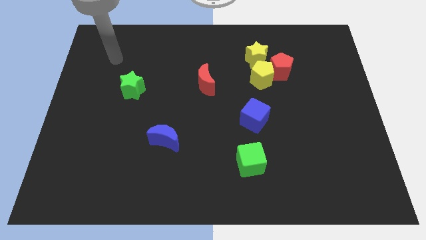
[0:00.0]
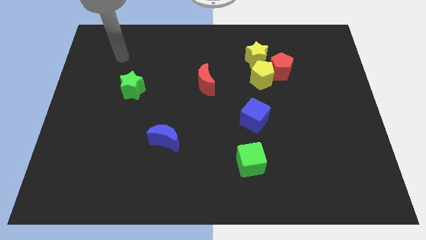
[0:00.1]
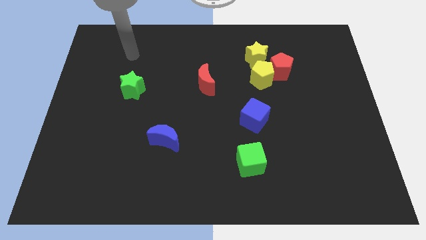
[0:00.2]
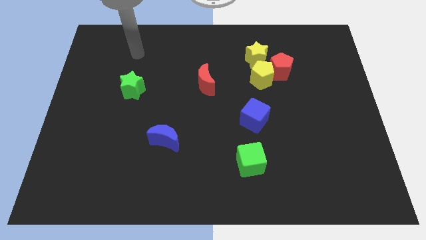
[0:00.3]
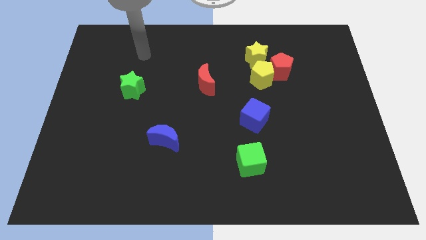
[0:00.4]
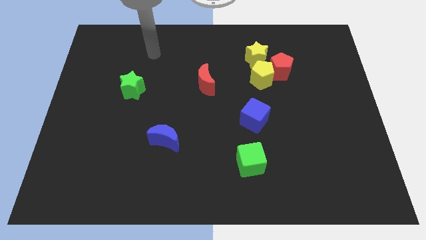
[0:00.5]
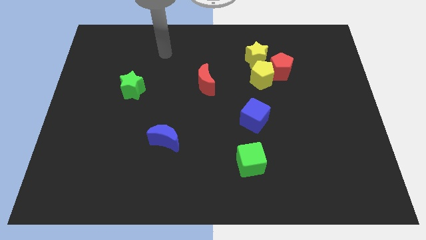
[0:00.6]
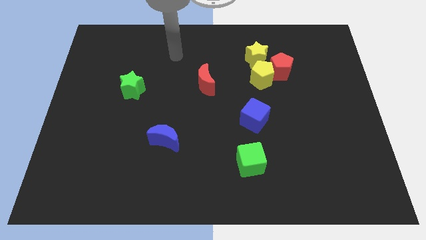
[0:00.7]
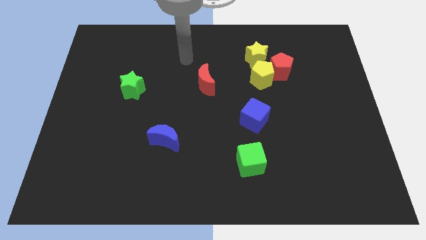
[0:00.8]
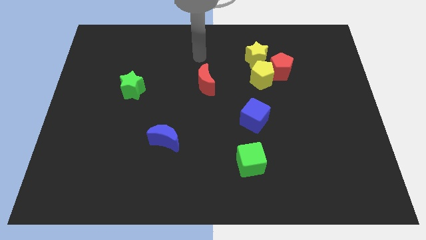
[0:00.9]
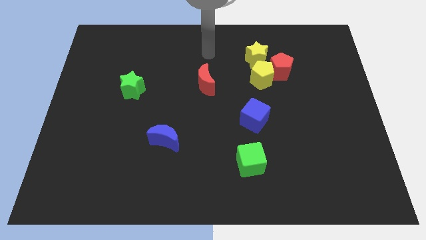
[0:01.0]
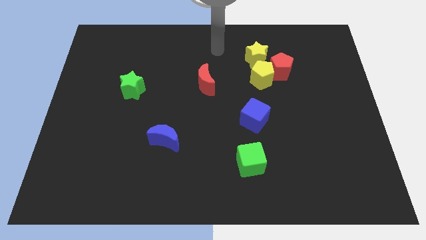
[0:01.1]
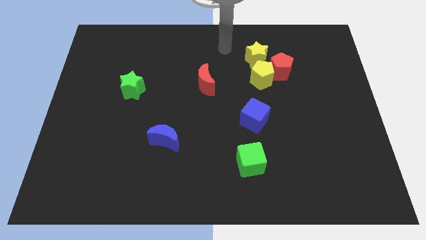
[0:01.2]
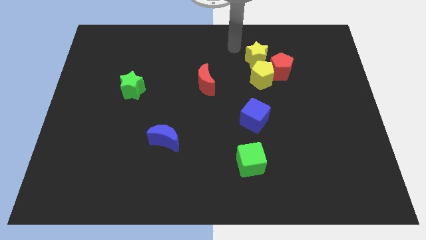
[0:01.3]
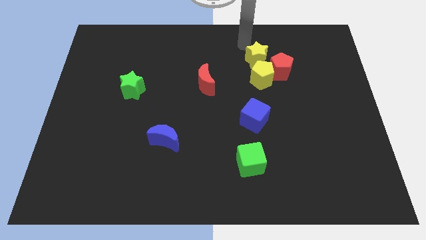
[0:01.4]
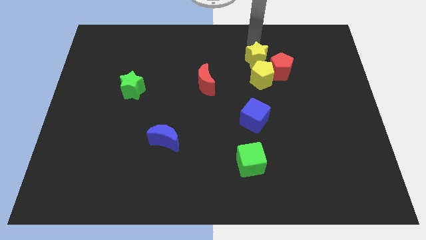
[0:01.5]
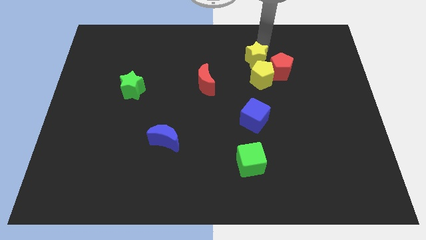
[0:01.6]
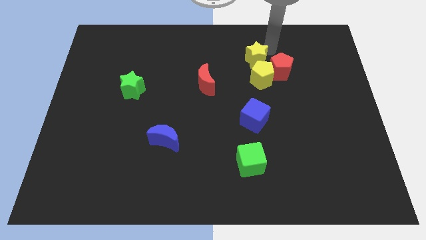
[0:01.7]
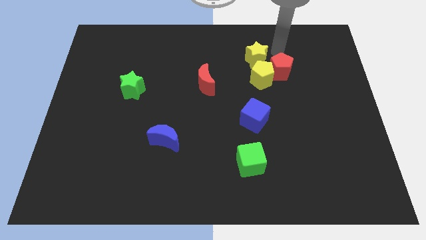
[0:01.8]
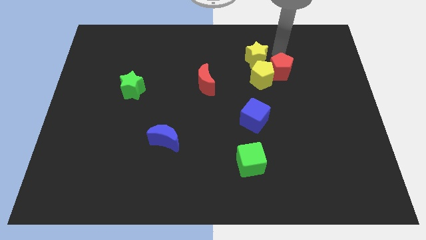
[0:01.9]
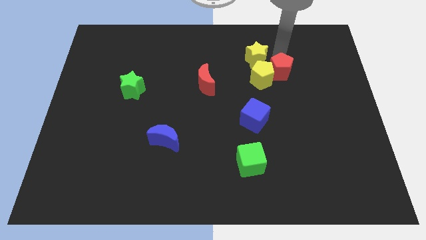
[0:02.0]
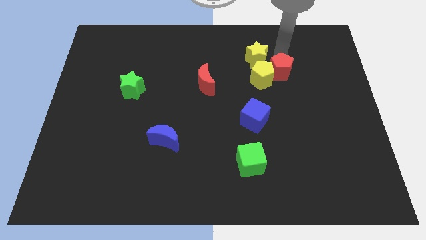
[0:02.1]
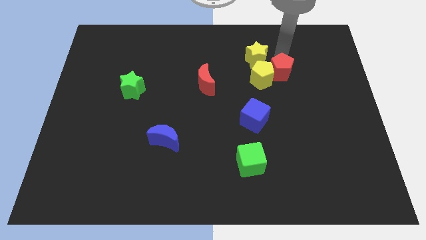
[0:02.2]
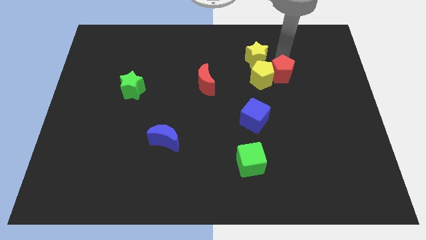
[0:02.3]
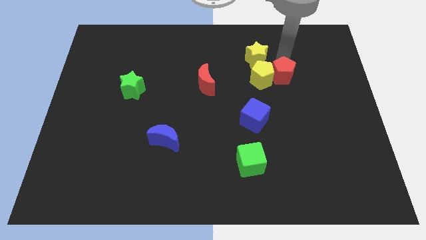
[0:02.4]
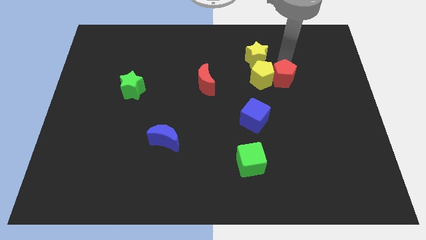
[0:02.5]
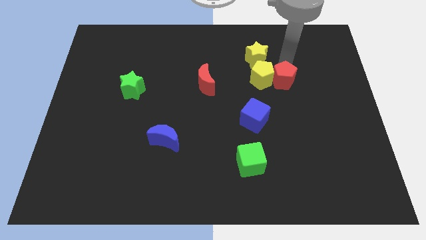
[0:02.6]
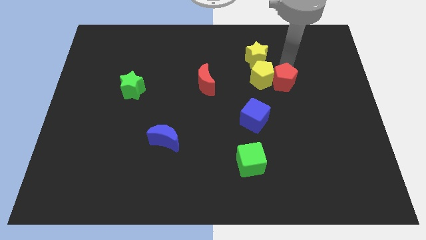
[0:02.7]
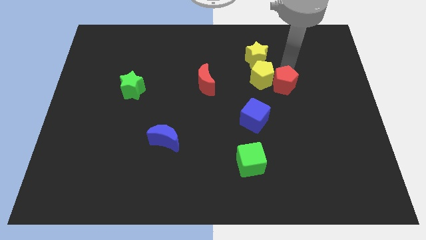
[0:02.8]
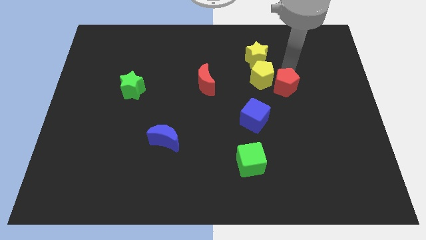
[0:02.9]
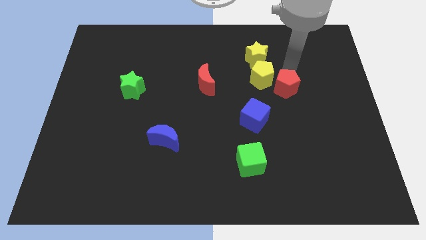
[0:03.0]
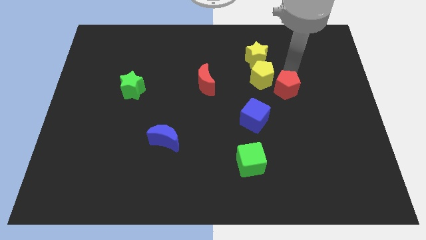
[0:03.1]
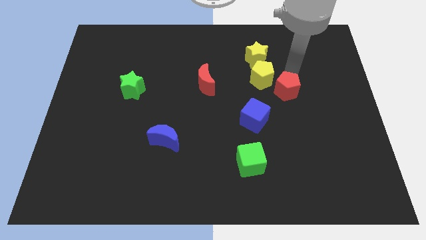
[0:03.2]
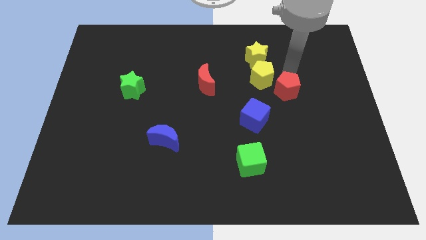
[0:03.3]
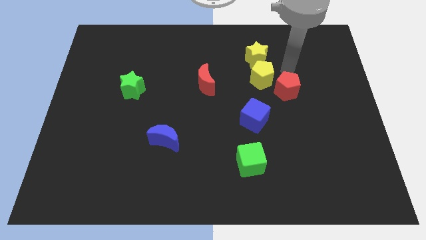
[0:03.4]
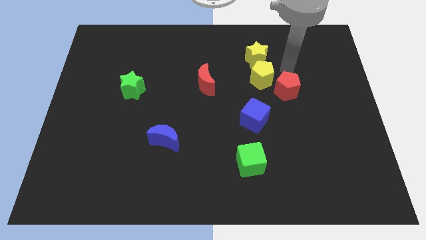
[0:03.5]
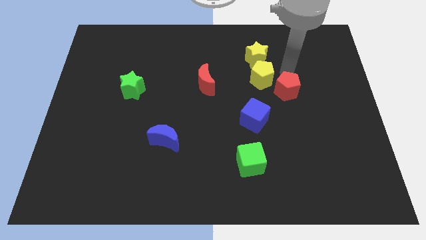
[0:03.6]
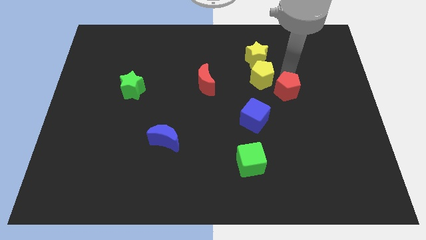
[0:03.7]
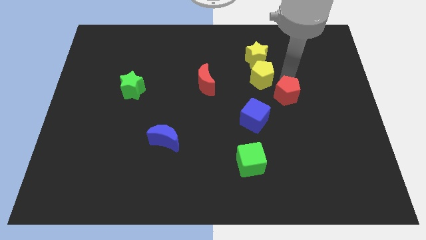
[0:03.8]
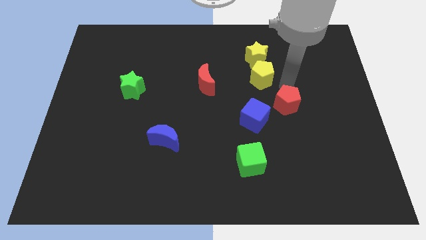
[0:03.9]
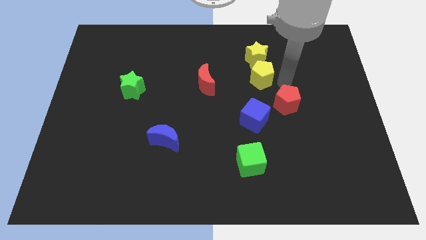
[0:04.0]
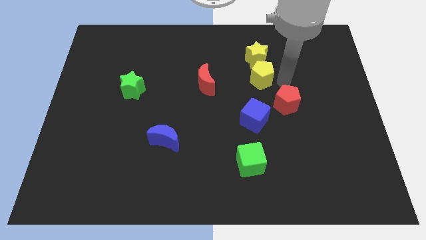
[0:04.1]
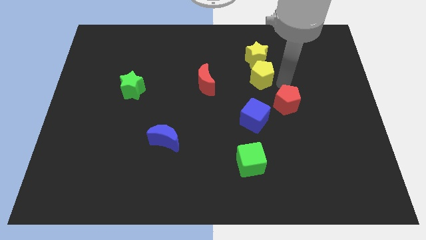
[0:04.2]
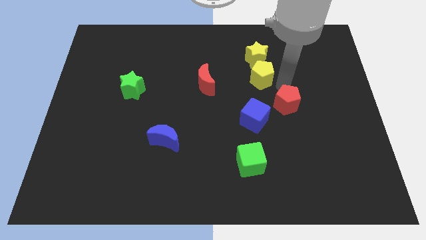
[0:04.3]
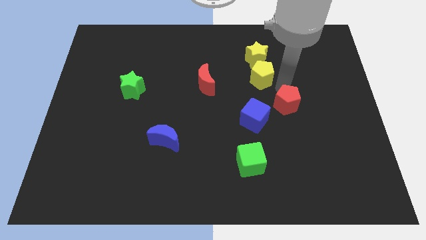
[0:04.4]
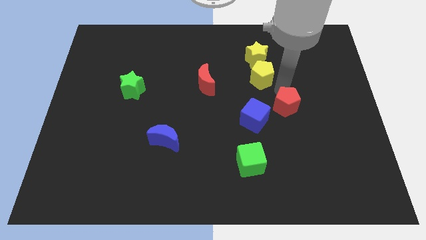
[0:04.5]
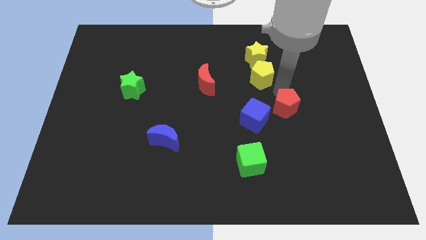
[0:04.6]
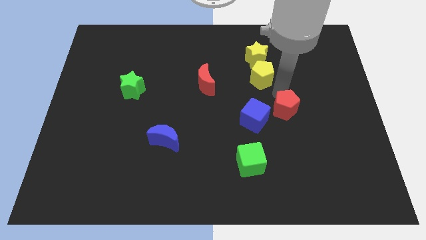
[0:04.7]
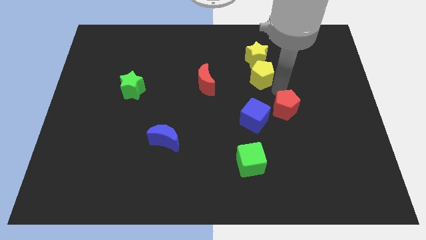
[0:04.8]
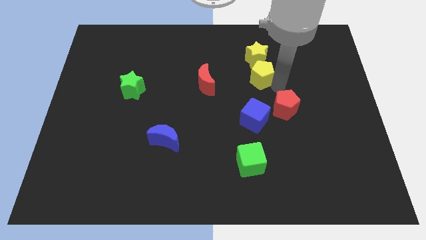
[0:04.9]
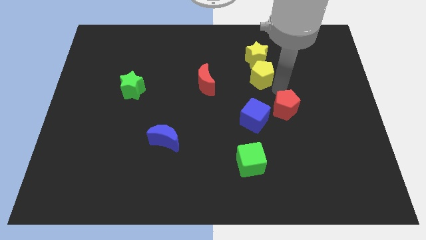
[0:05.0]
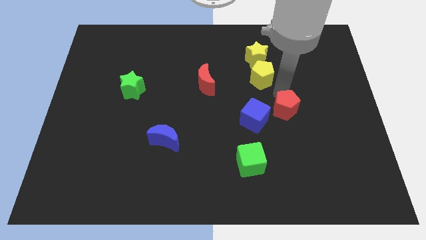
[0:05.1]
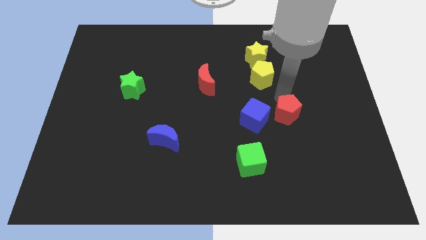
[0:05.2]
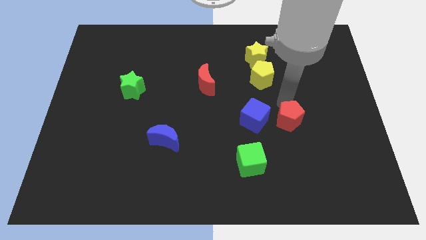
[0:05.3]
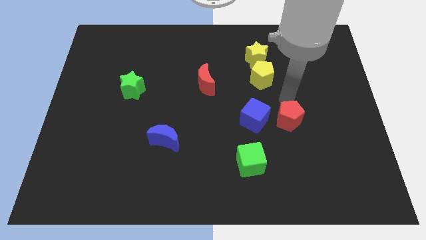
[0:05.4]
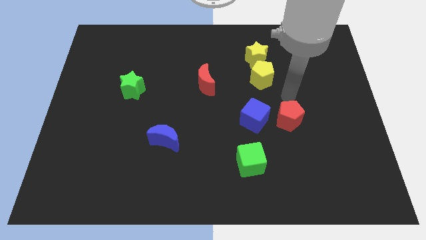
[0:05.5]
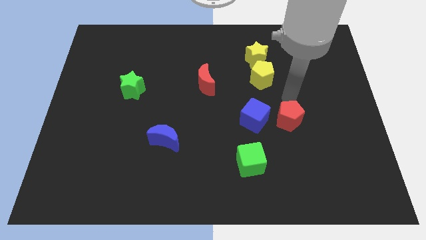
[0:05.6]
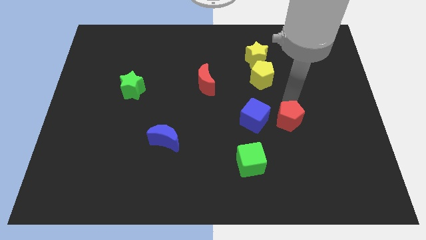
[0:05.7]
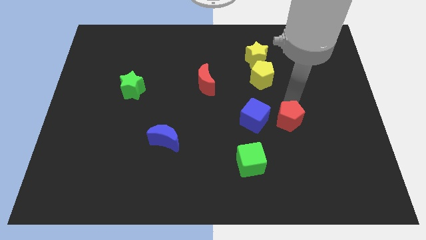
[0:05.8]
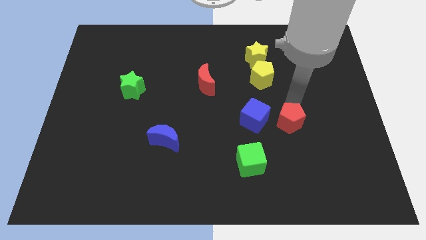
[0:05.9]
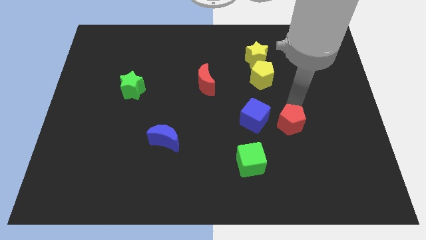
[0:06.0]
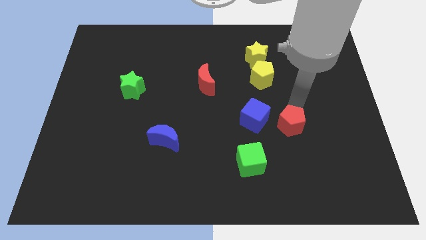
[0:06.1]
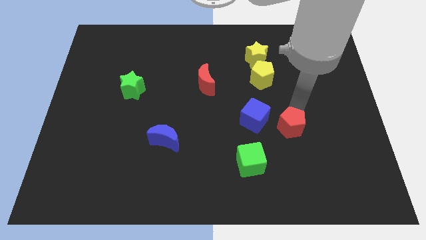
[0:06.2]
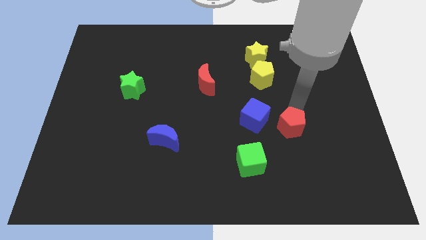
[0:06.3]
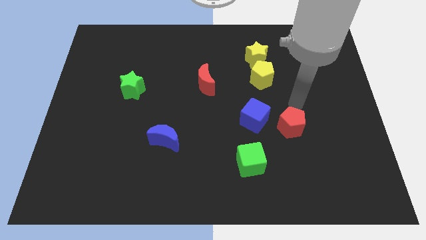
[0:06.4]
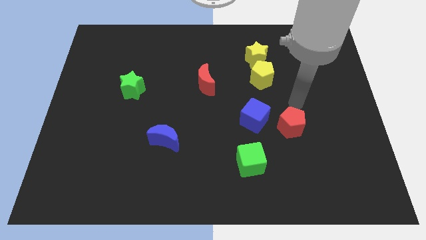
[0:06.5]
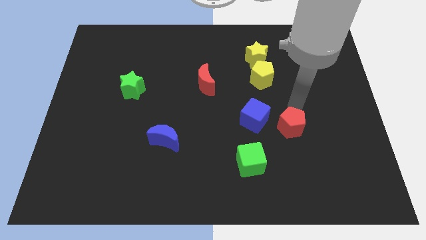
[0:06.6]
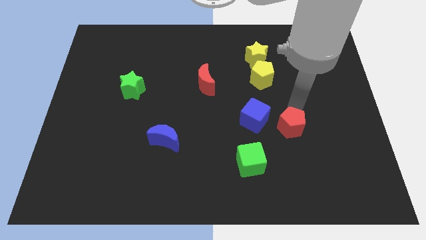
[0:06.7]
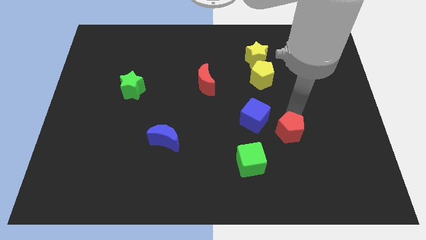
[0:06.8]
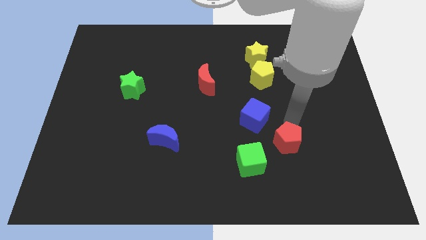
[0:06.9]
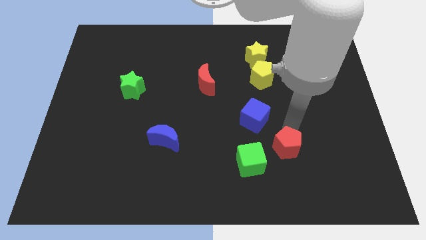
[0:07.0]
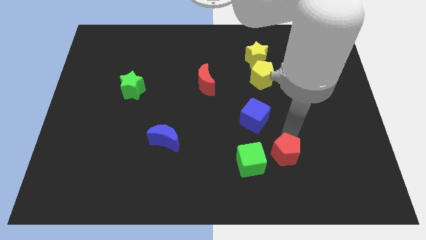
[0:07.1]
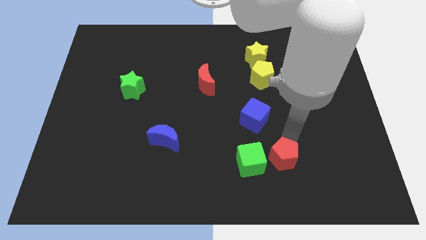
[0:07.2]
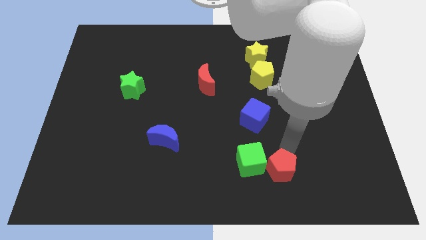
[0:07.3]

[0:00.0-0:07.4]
slide the red pentagon to the bottom of the blue cube
